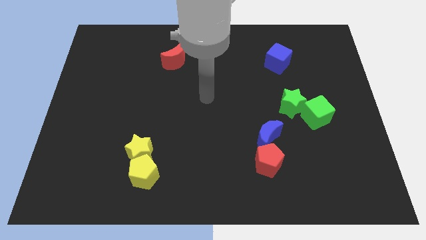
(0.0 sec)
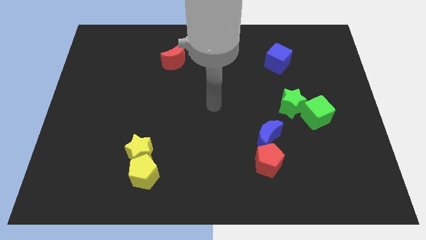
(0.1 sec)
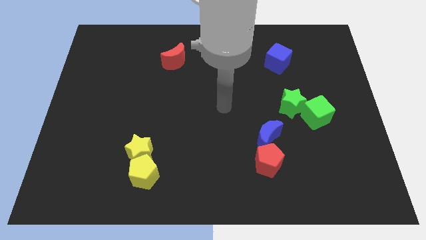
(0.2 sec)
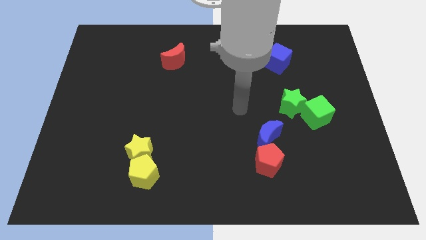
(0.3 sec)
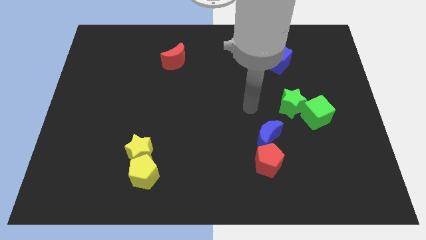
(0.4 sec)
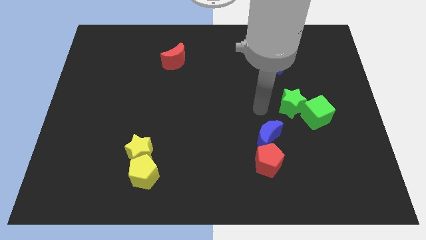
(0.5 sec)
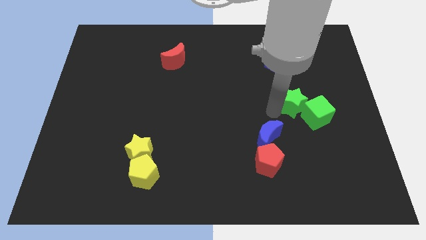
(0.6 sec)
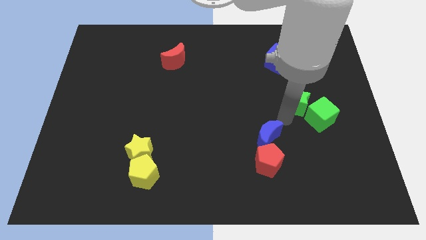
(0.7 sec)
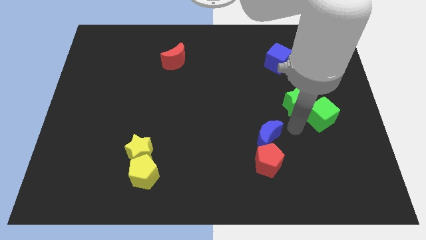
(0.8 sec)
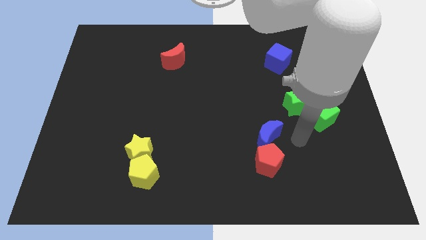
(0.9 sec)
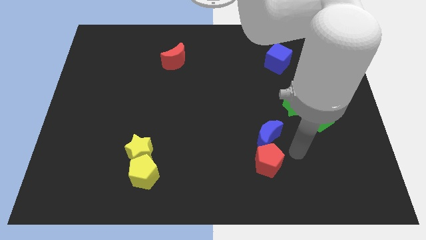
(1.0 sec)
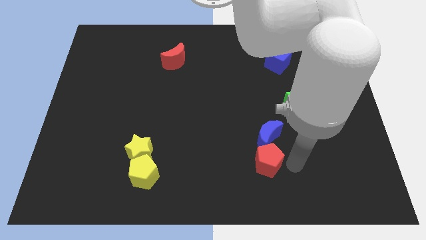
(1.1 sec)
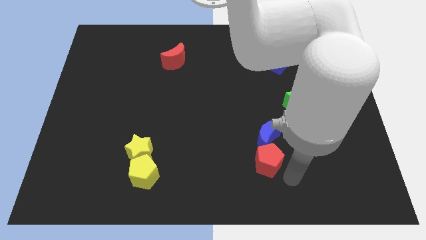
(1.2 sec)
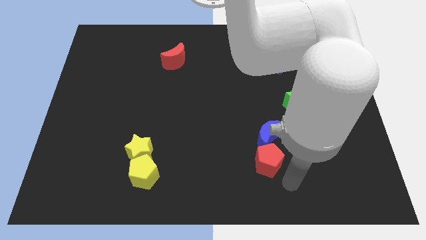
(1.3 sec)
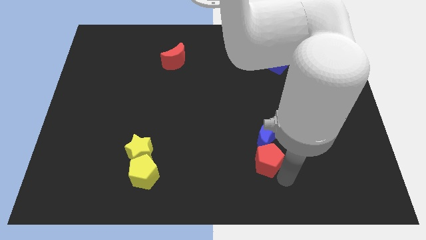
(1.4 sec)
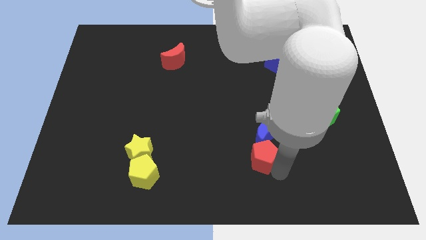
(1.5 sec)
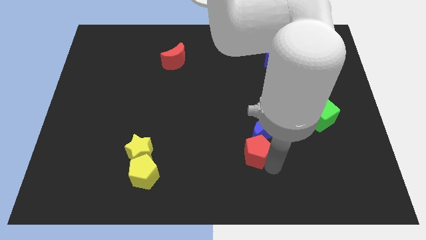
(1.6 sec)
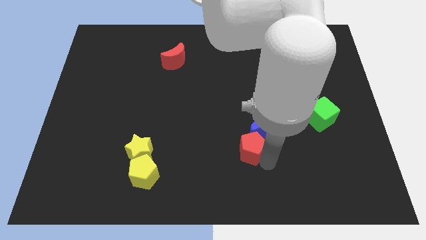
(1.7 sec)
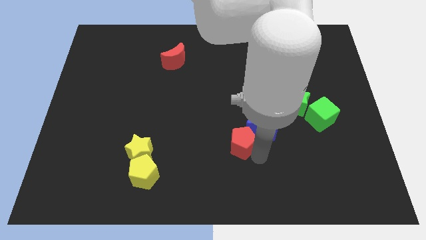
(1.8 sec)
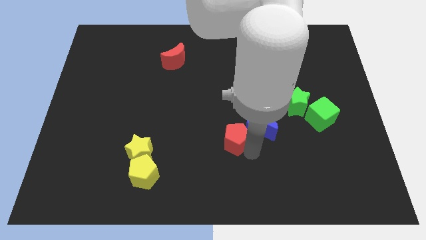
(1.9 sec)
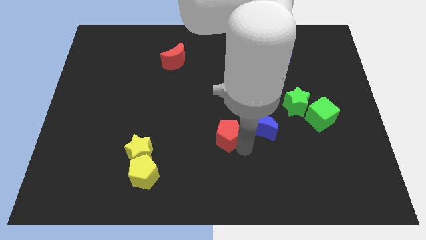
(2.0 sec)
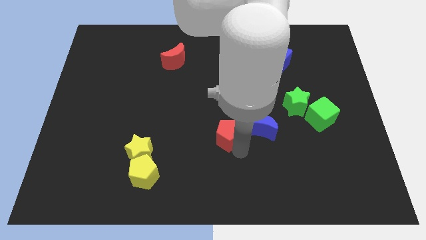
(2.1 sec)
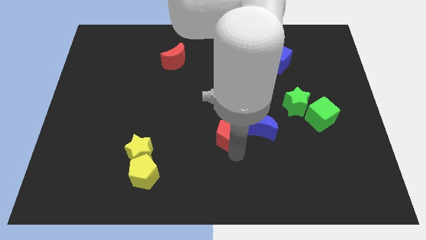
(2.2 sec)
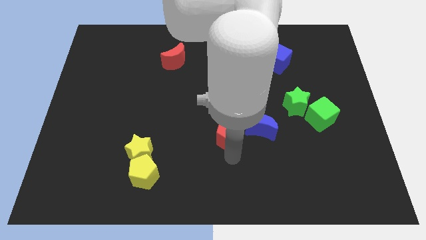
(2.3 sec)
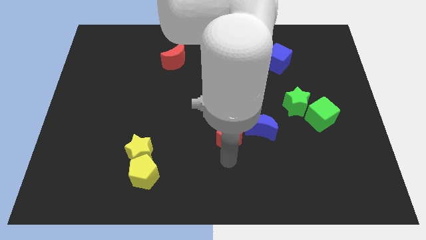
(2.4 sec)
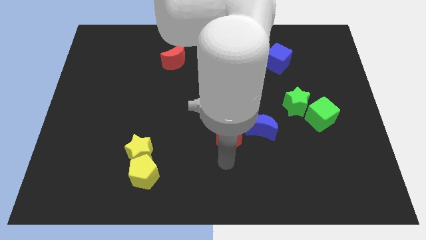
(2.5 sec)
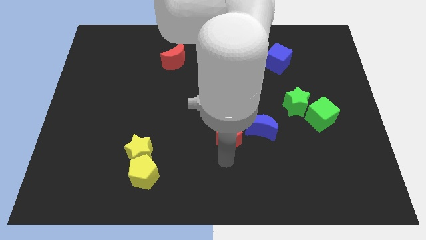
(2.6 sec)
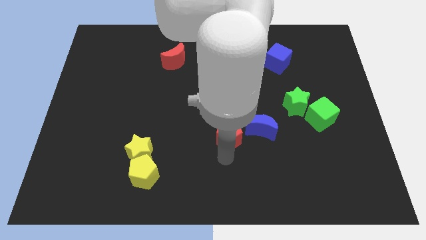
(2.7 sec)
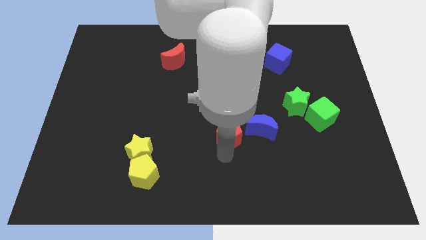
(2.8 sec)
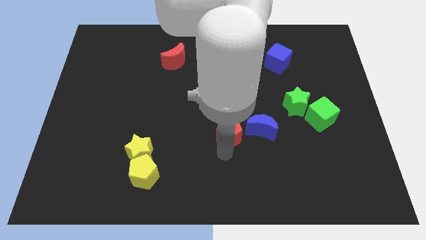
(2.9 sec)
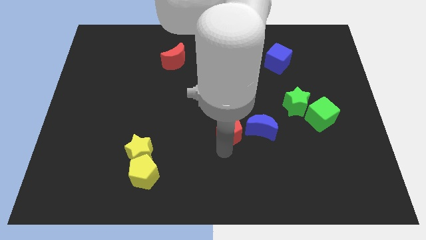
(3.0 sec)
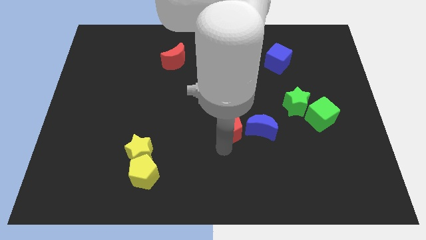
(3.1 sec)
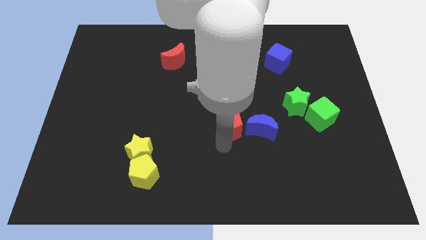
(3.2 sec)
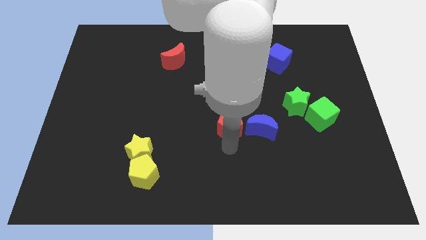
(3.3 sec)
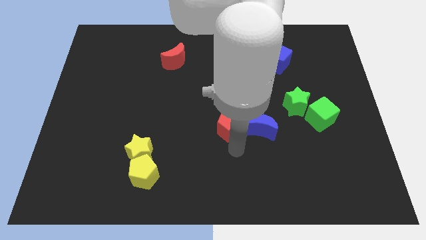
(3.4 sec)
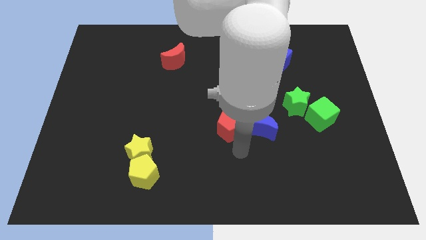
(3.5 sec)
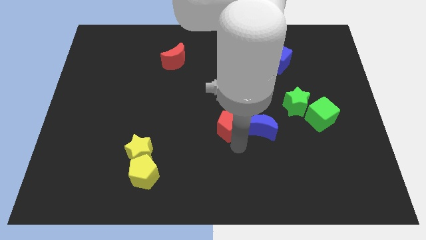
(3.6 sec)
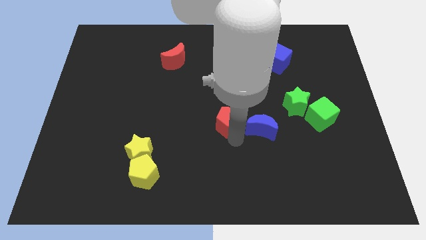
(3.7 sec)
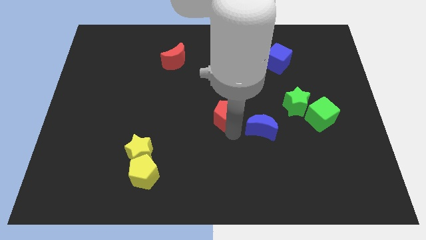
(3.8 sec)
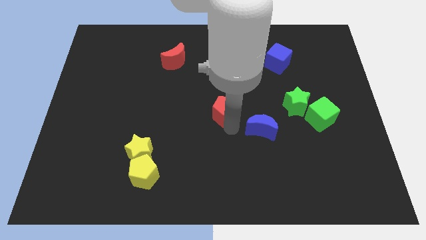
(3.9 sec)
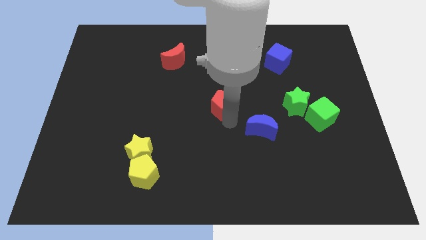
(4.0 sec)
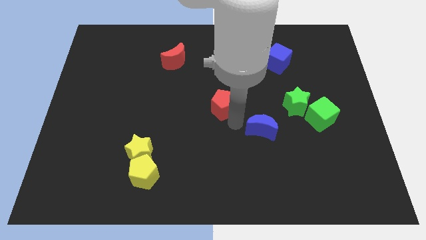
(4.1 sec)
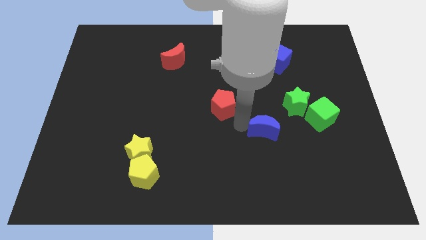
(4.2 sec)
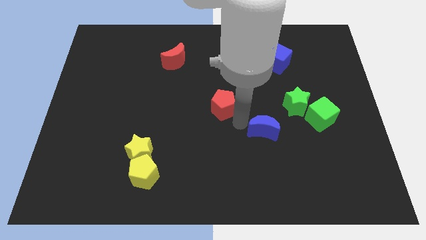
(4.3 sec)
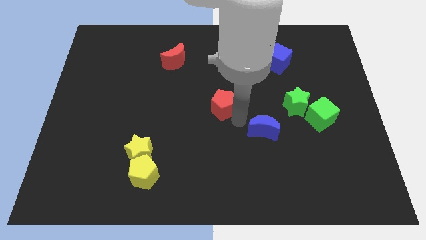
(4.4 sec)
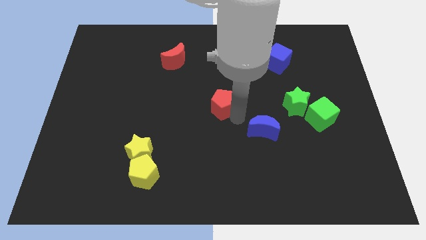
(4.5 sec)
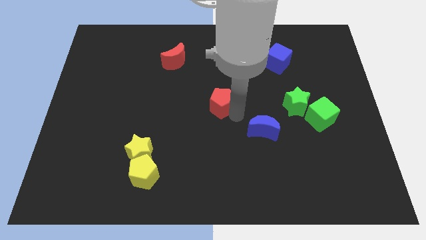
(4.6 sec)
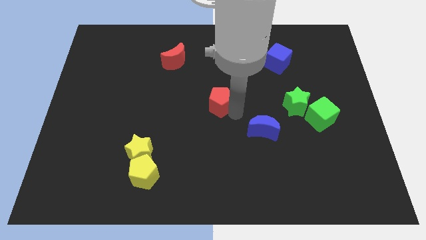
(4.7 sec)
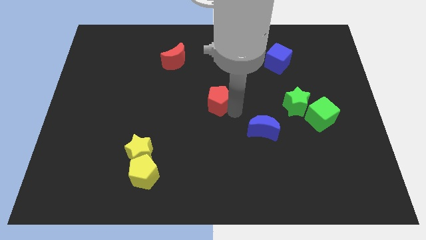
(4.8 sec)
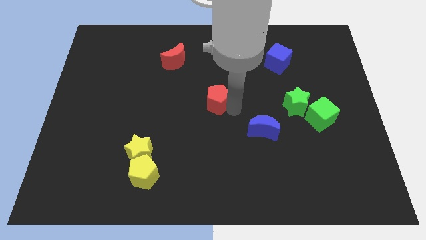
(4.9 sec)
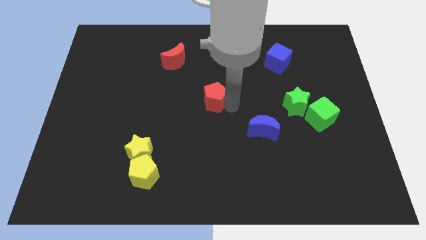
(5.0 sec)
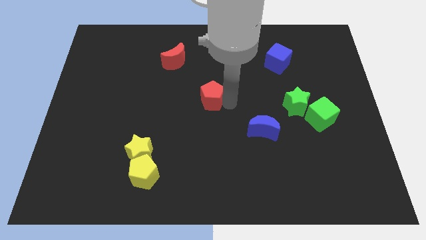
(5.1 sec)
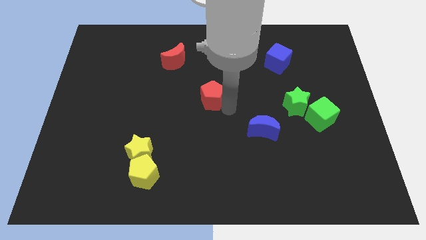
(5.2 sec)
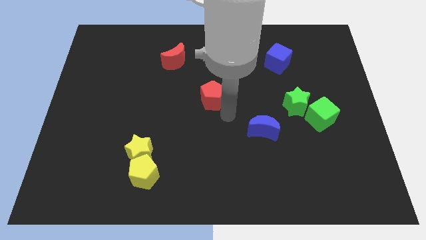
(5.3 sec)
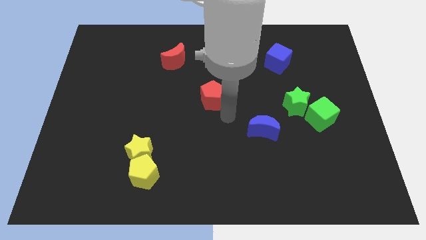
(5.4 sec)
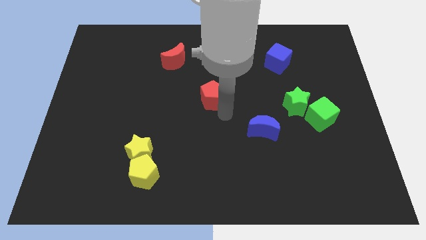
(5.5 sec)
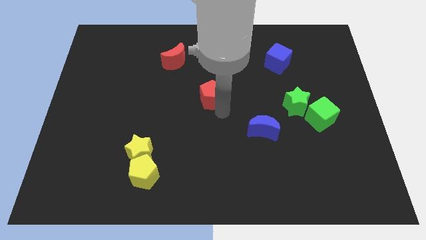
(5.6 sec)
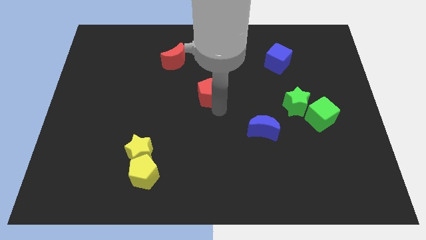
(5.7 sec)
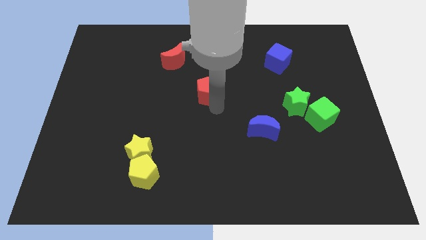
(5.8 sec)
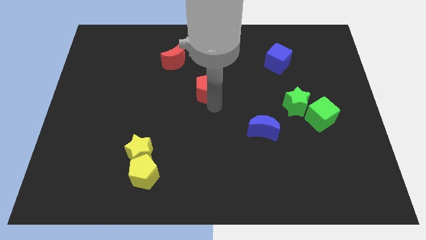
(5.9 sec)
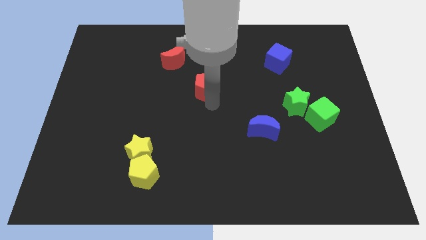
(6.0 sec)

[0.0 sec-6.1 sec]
move the red pentagon to the bottom right of the red moon

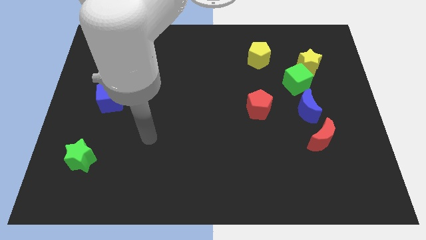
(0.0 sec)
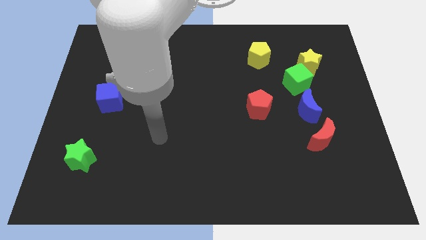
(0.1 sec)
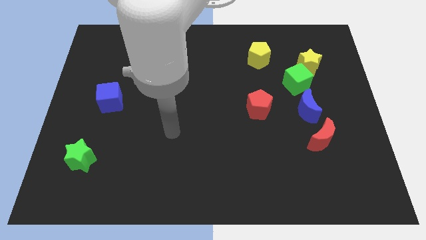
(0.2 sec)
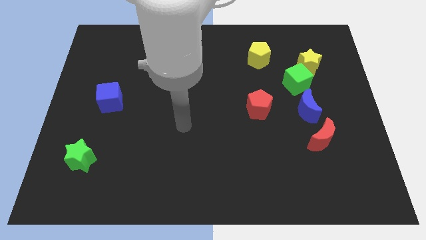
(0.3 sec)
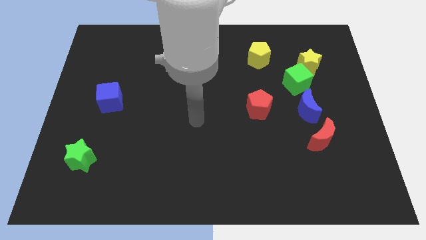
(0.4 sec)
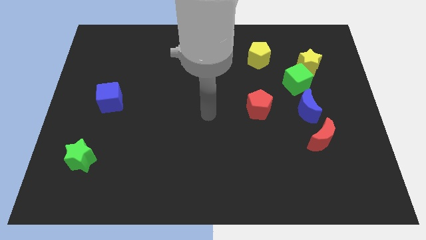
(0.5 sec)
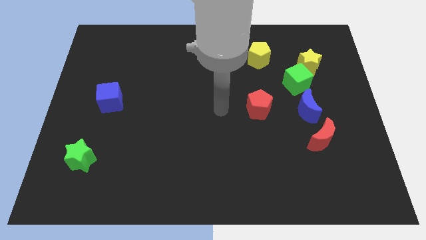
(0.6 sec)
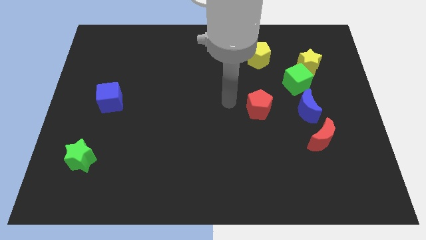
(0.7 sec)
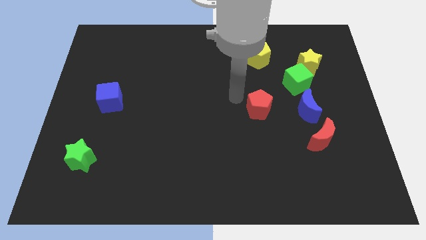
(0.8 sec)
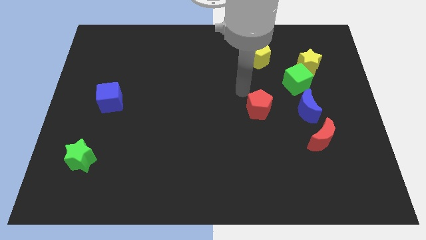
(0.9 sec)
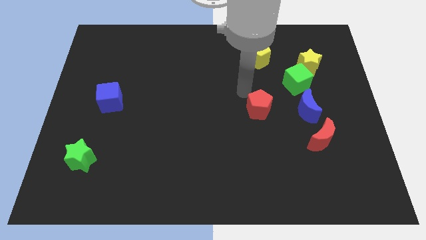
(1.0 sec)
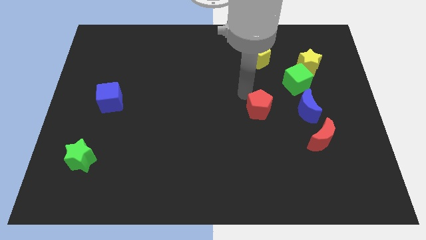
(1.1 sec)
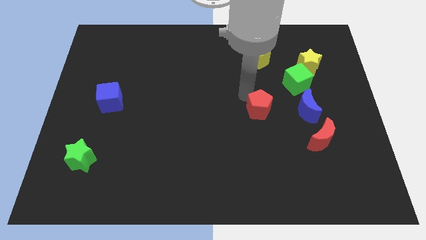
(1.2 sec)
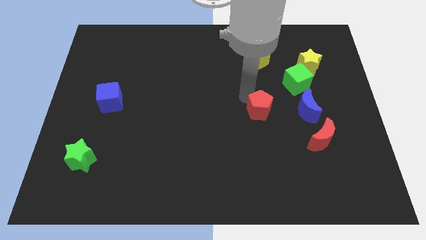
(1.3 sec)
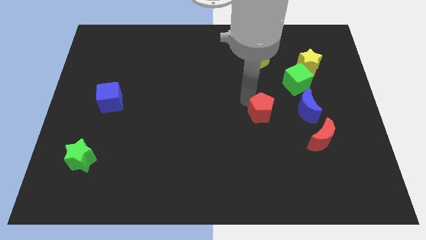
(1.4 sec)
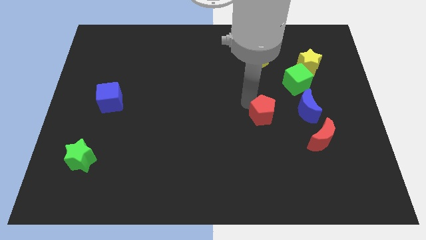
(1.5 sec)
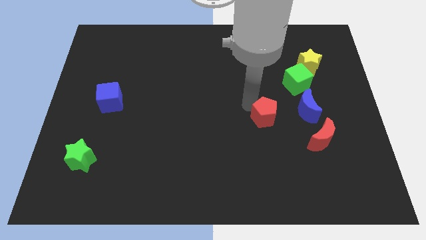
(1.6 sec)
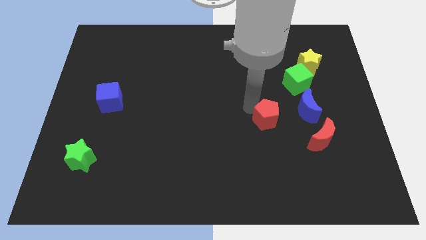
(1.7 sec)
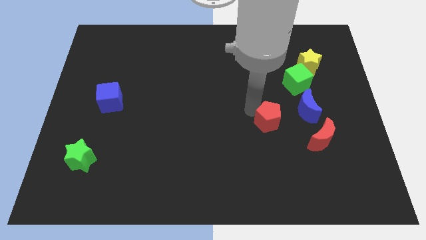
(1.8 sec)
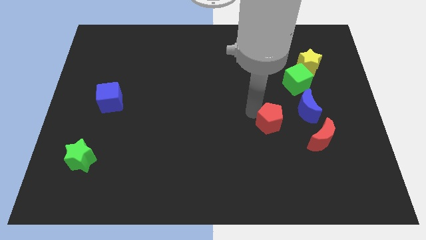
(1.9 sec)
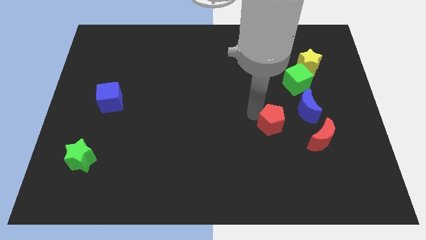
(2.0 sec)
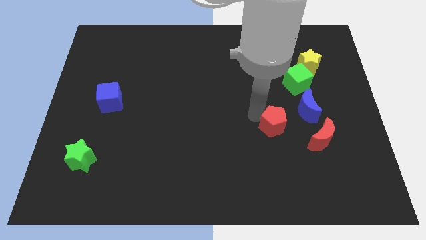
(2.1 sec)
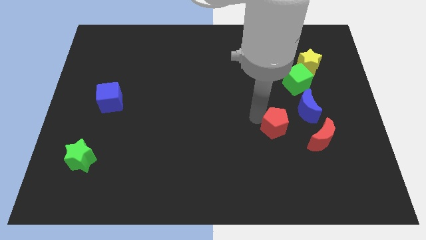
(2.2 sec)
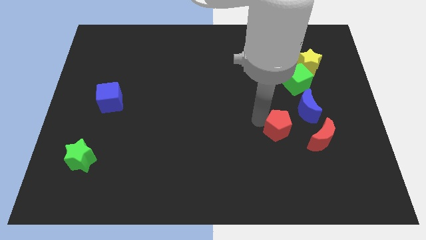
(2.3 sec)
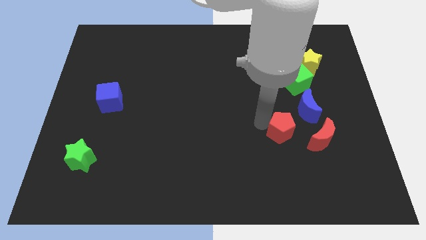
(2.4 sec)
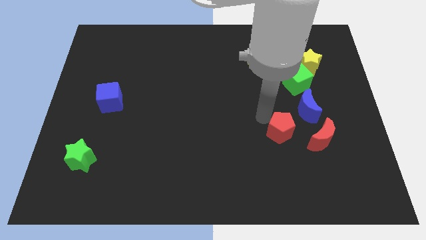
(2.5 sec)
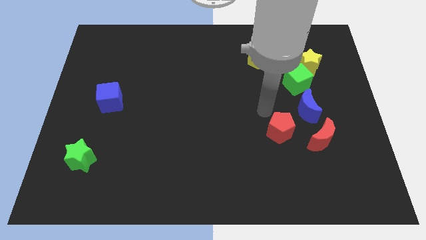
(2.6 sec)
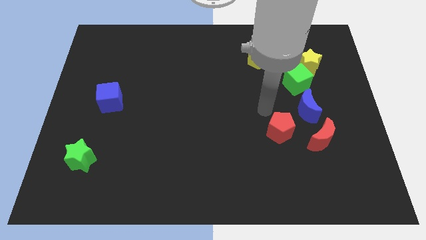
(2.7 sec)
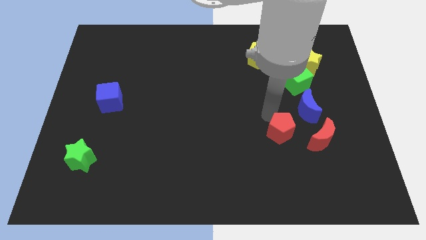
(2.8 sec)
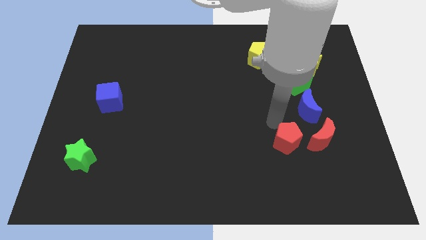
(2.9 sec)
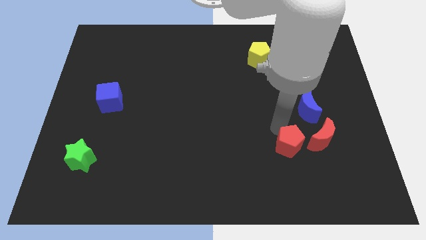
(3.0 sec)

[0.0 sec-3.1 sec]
move the red pentagon to the bottom left side of the red moon
